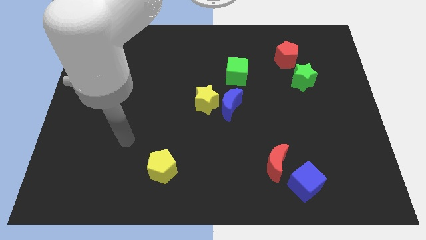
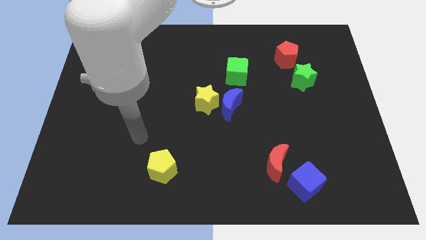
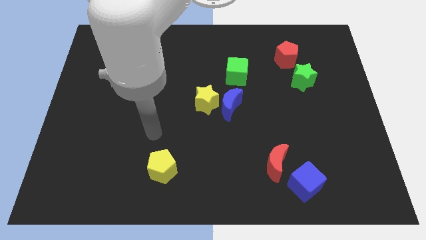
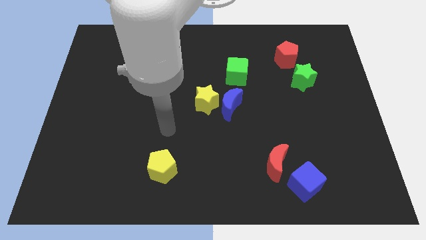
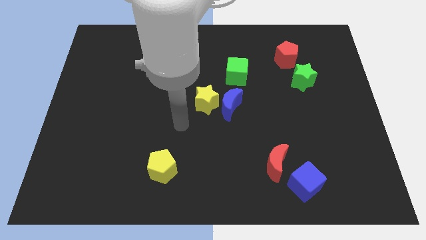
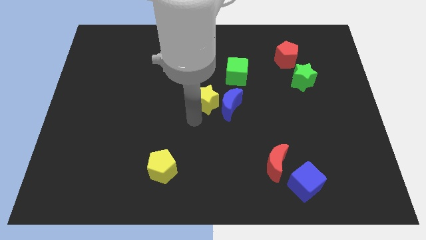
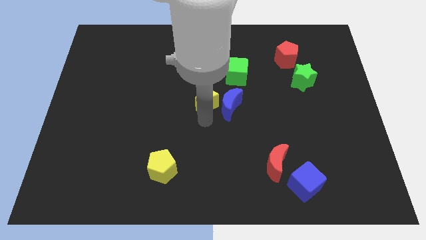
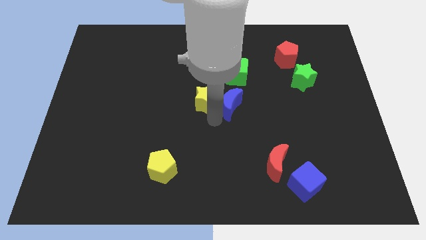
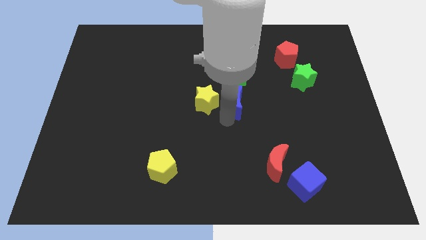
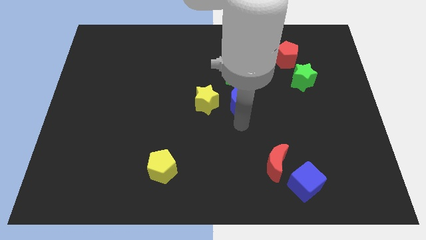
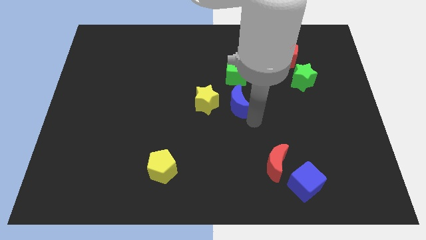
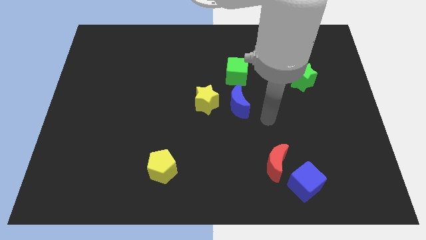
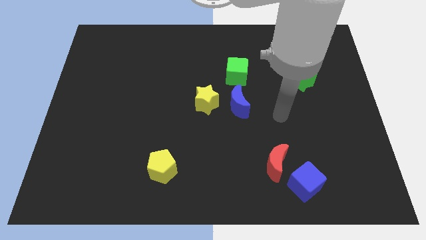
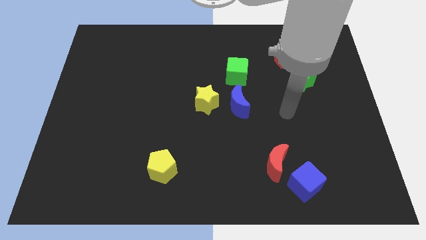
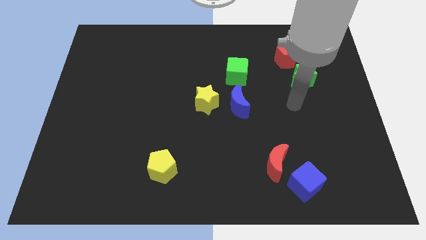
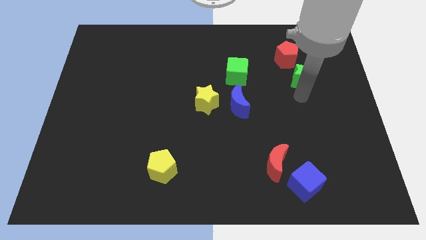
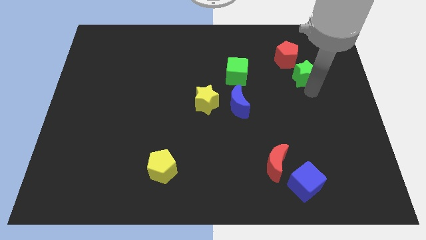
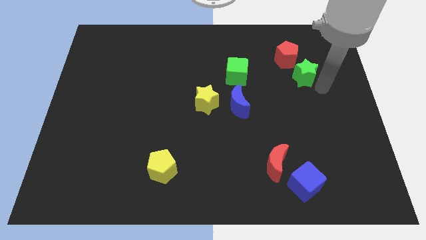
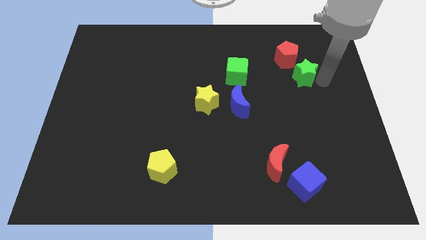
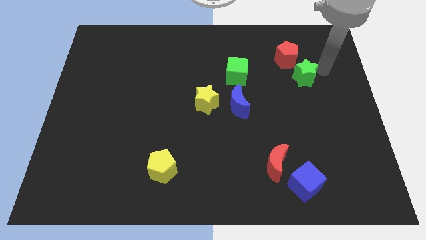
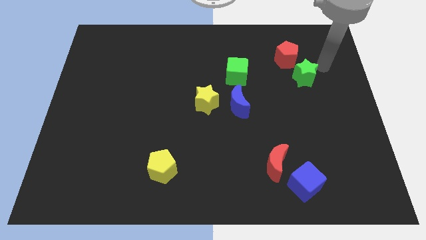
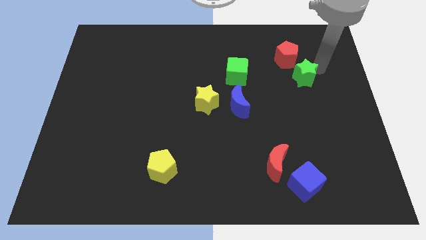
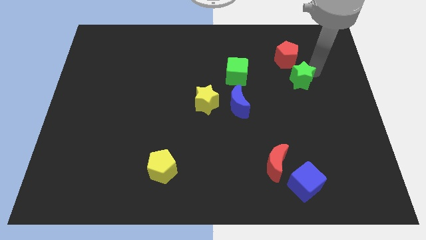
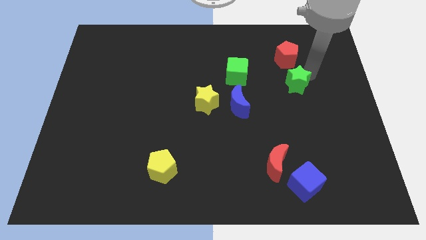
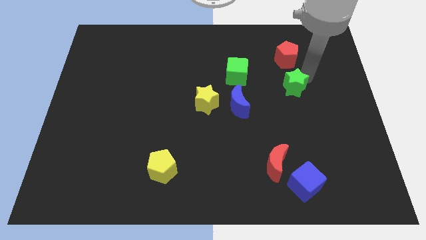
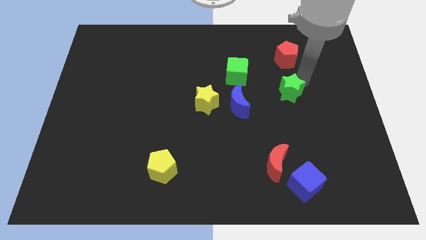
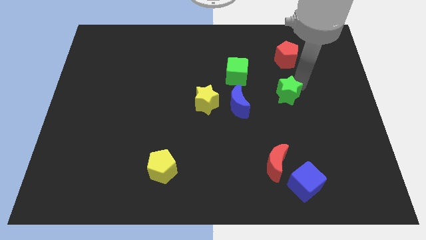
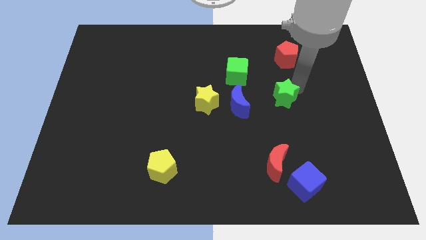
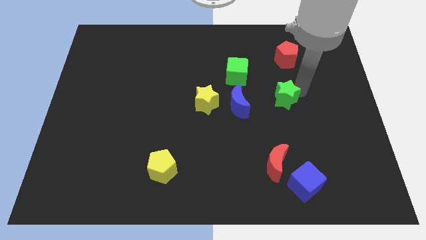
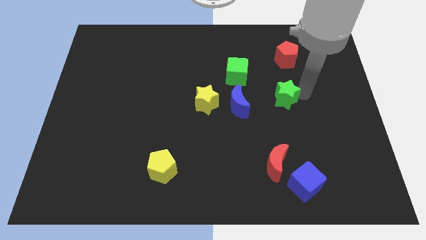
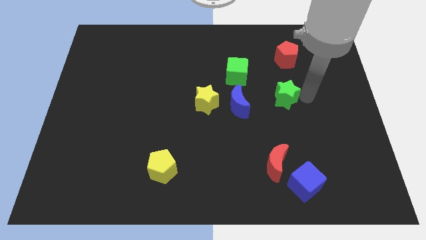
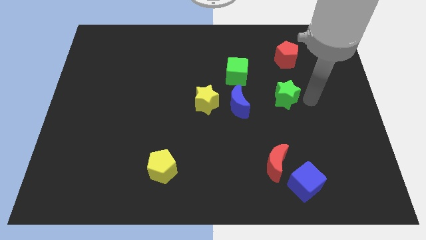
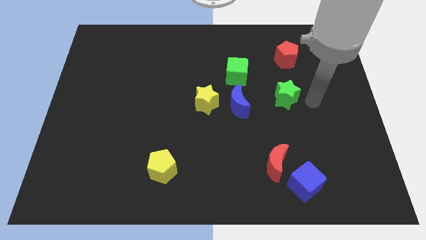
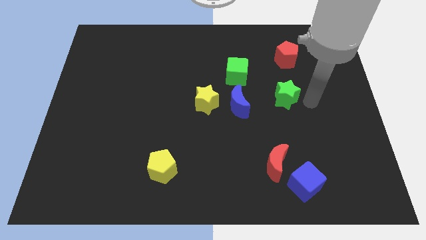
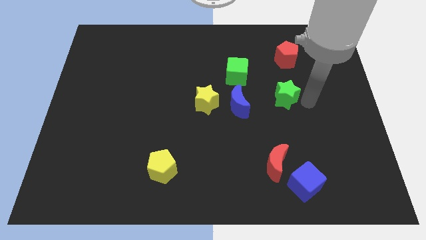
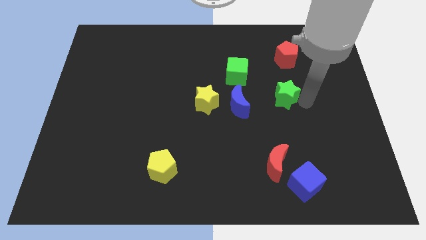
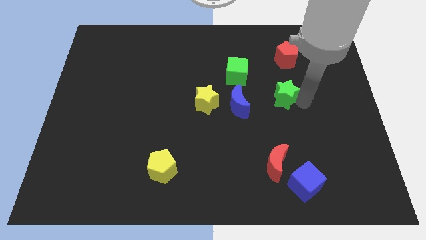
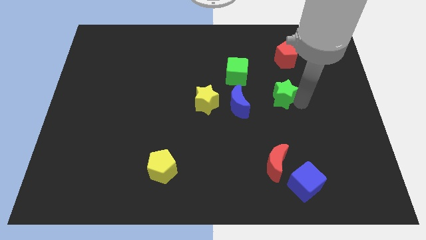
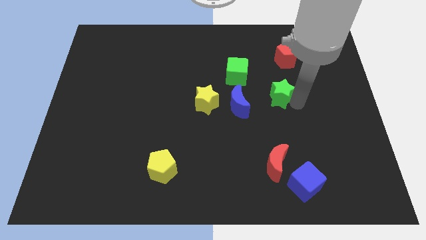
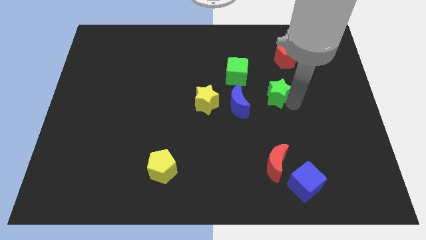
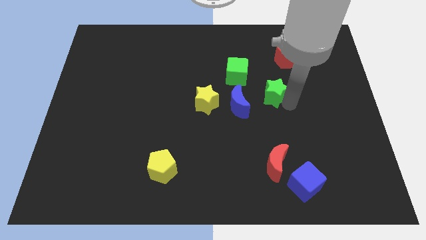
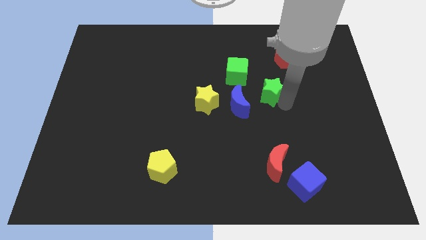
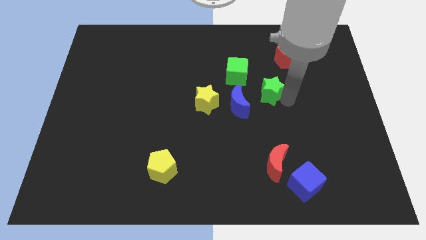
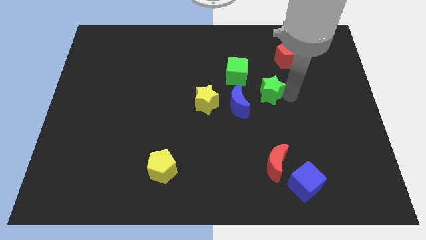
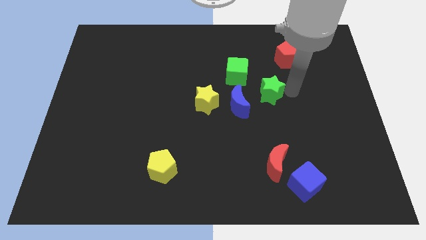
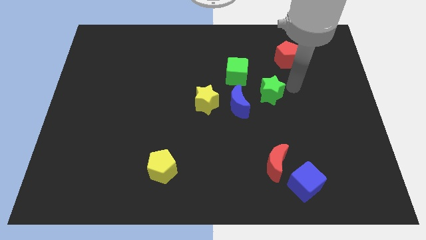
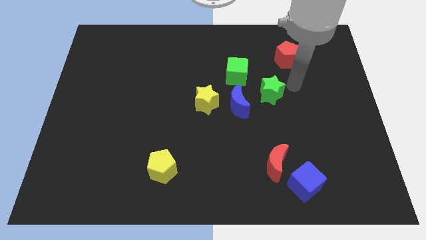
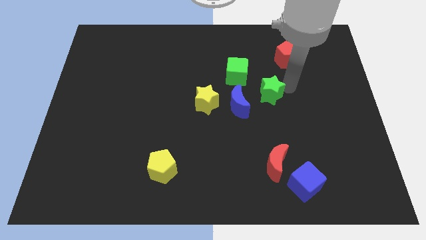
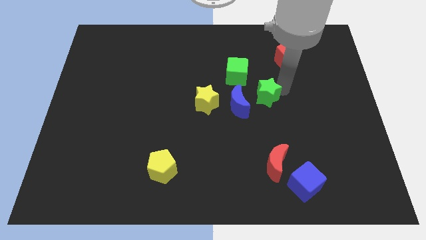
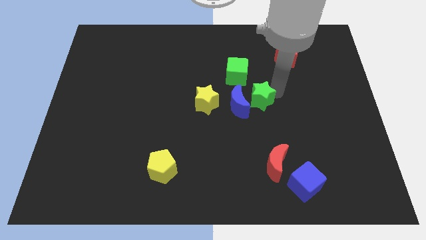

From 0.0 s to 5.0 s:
move the green star next to the blue moon

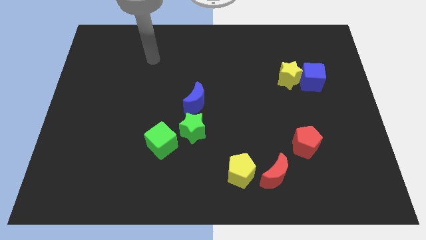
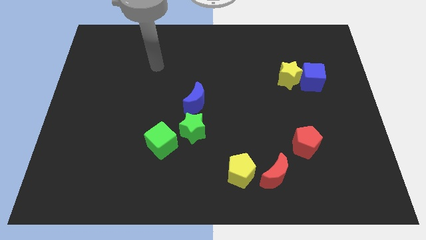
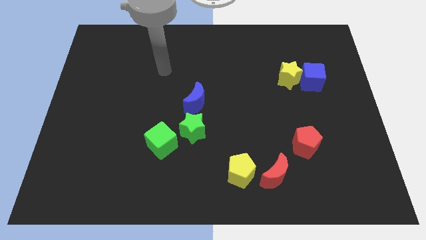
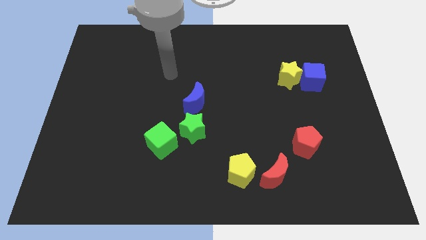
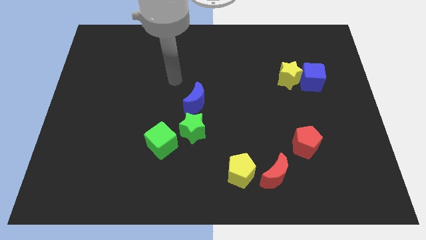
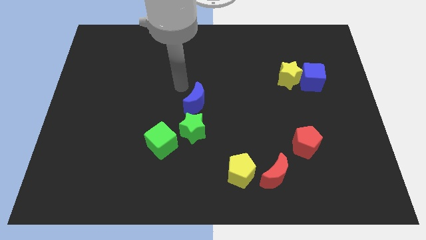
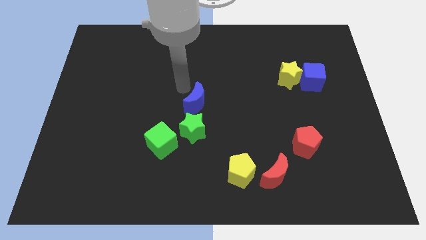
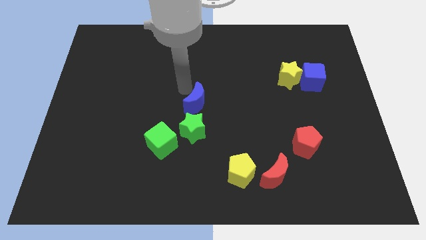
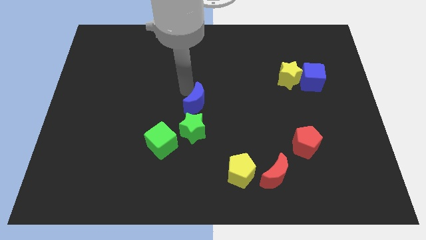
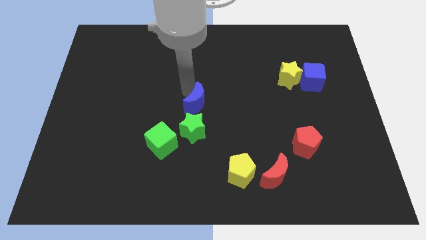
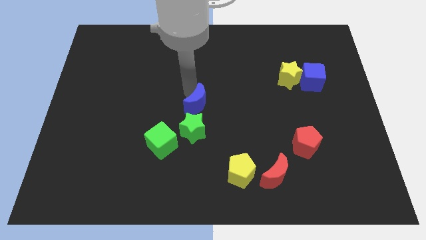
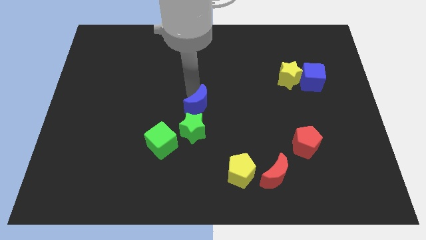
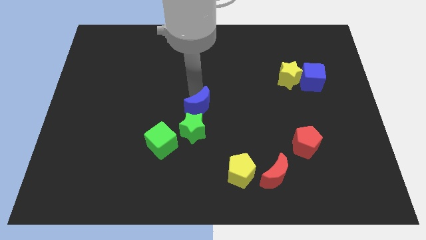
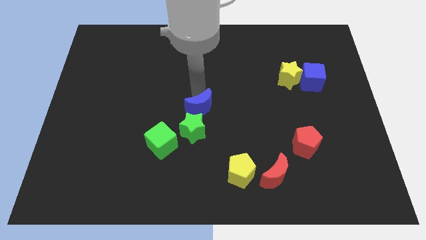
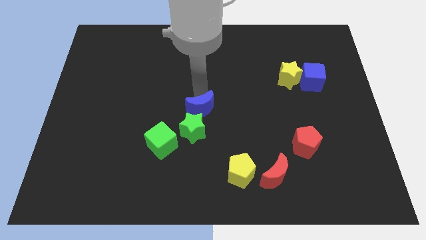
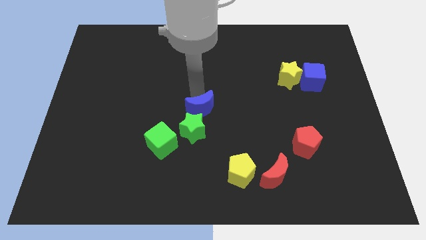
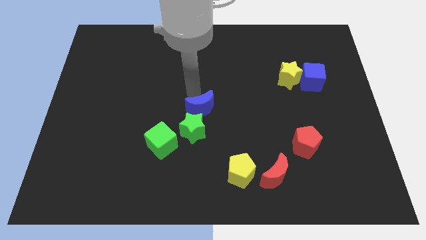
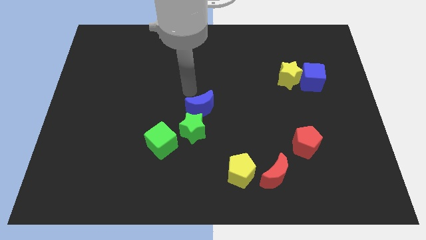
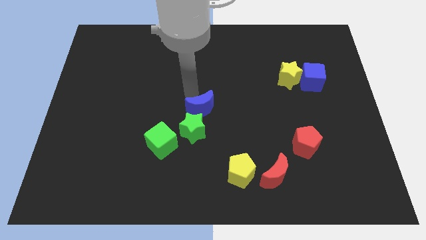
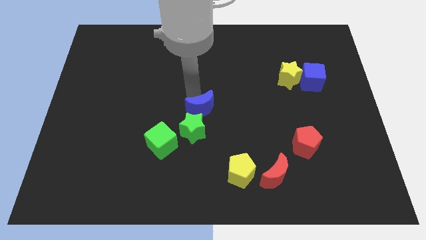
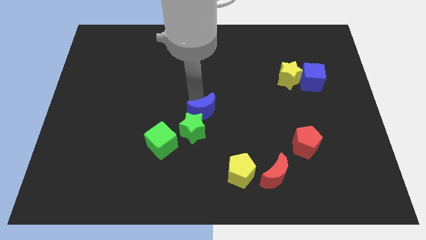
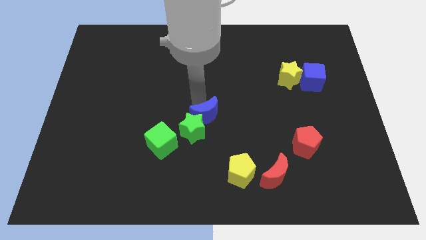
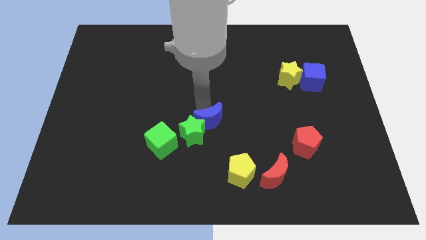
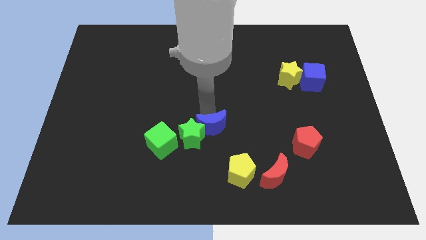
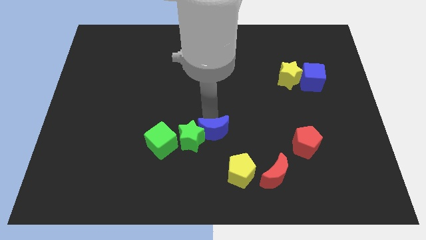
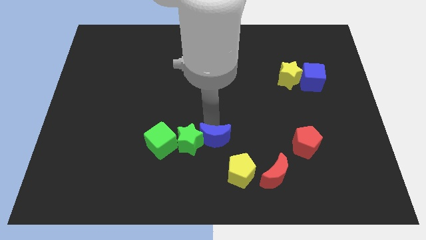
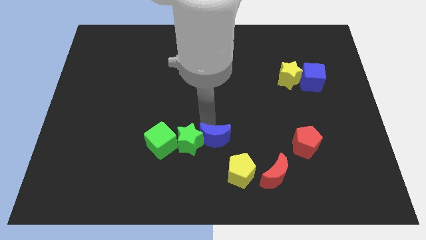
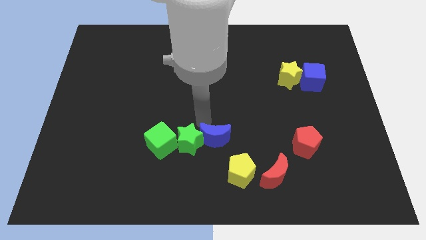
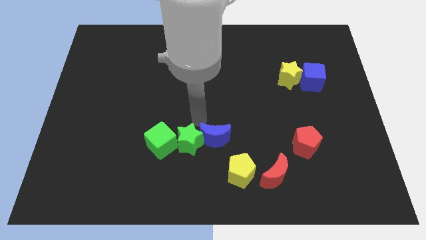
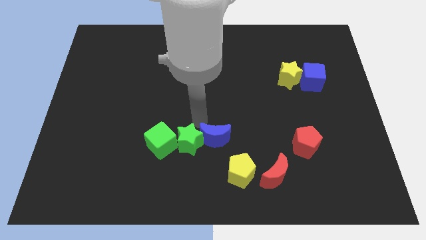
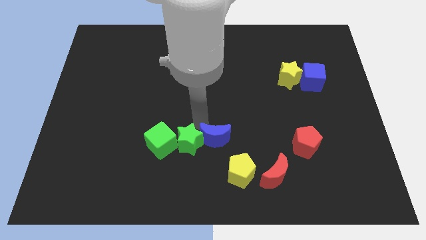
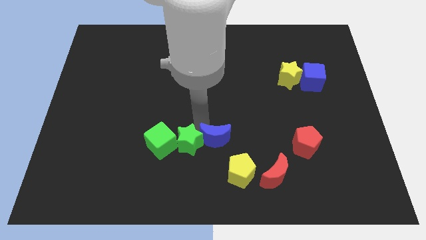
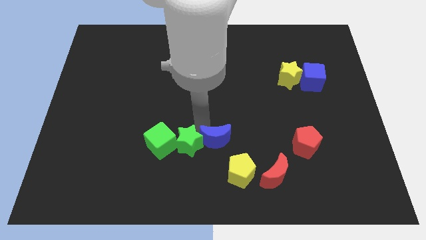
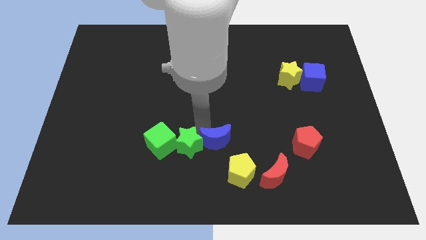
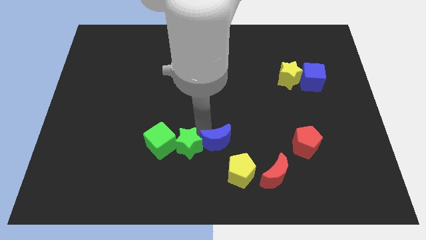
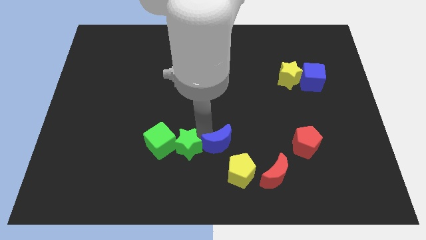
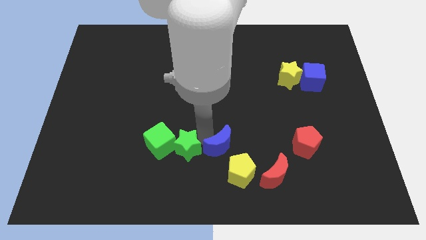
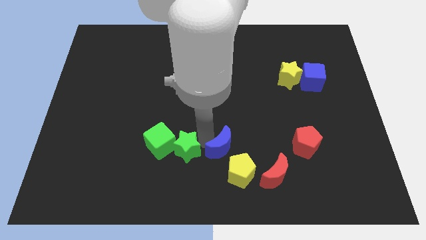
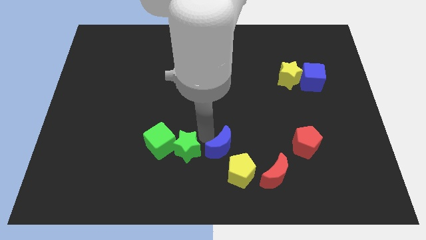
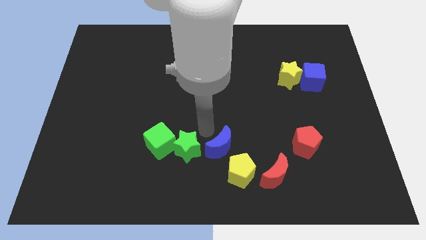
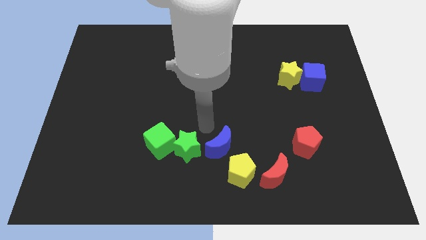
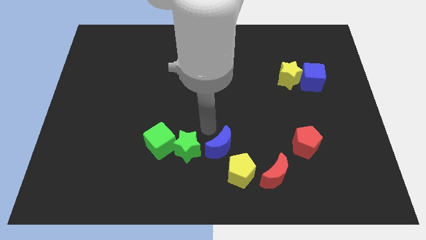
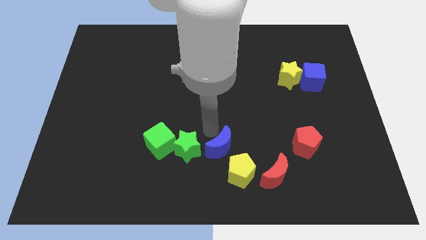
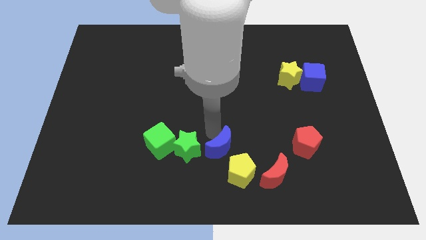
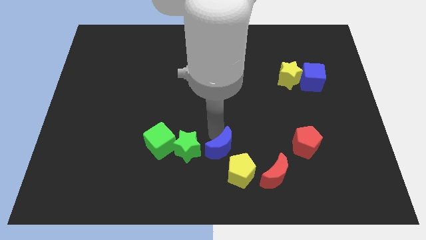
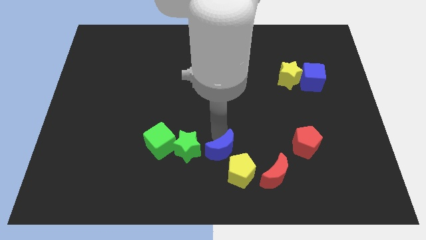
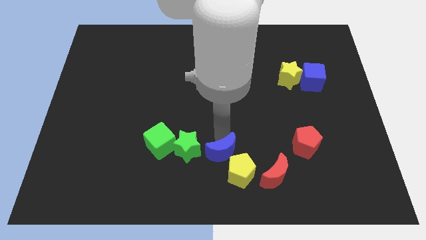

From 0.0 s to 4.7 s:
move the blue moon close to the yellow pentagon
